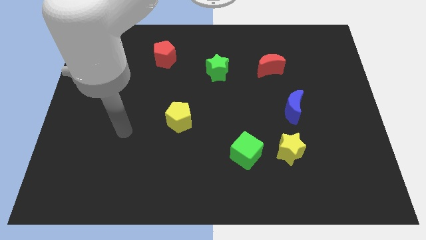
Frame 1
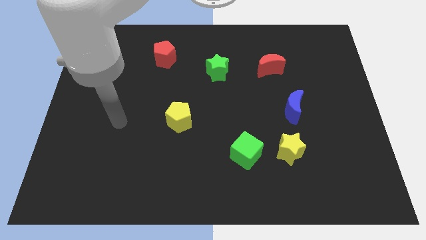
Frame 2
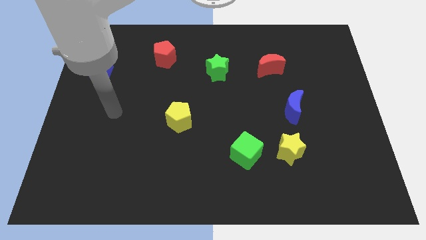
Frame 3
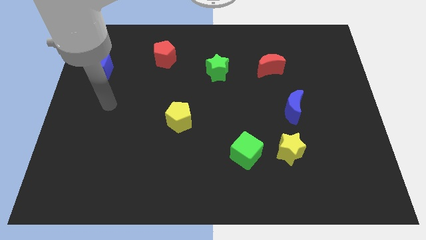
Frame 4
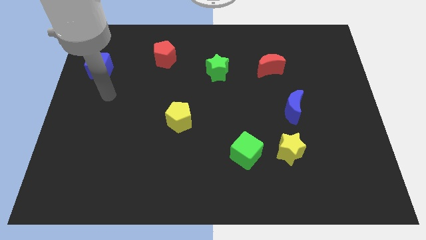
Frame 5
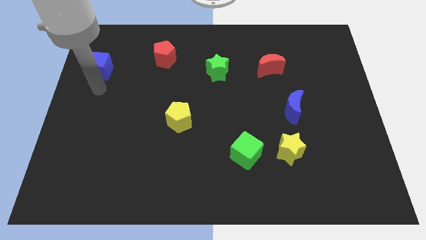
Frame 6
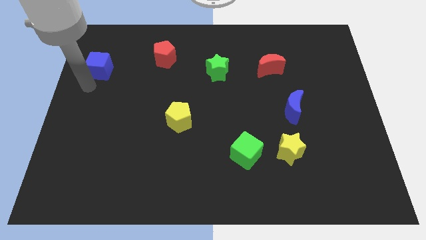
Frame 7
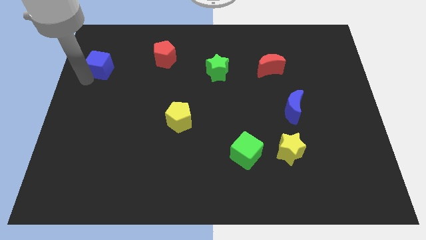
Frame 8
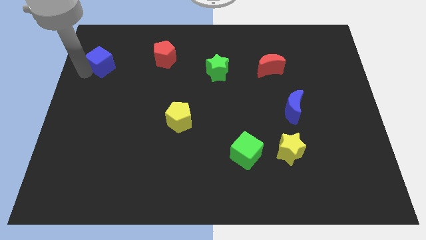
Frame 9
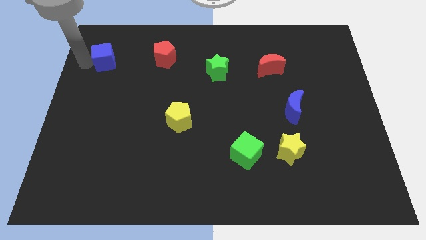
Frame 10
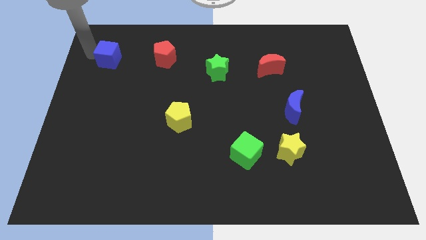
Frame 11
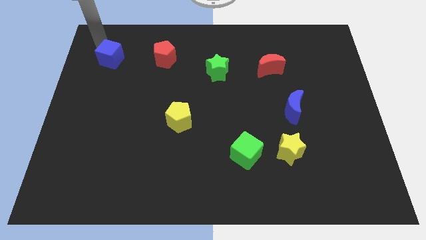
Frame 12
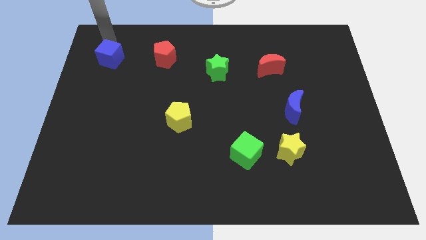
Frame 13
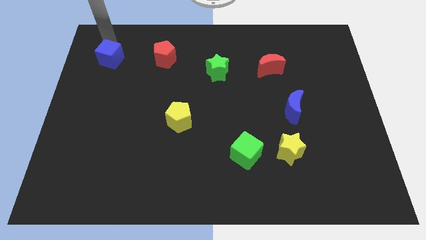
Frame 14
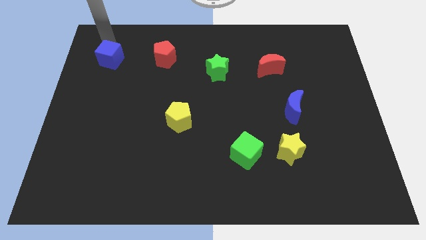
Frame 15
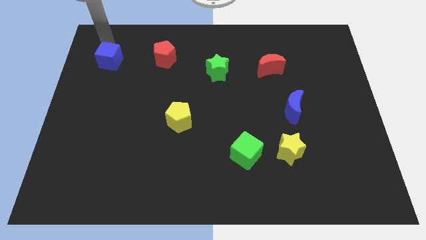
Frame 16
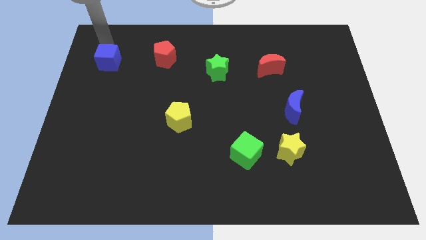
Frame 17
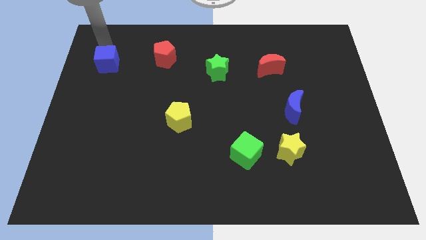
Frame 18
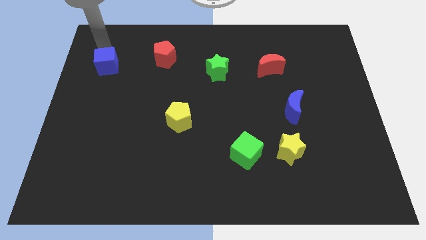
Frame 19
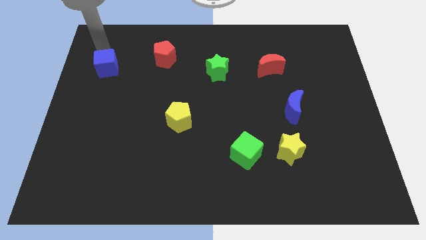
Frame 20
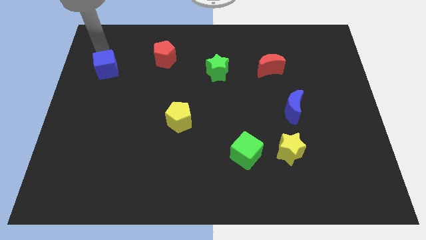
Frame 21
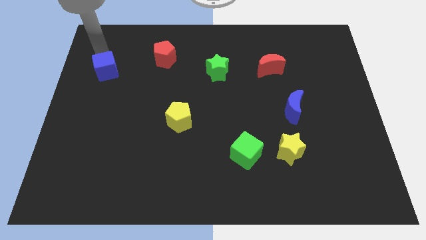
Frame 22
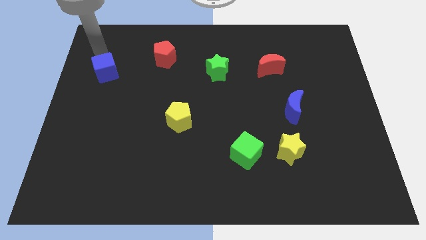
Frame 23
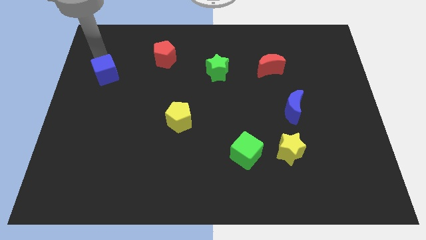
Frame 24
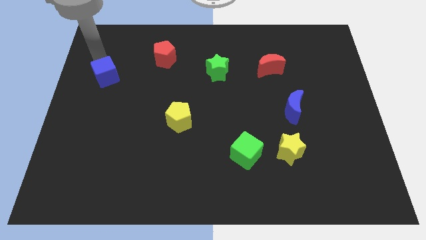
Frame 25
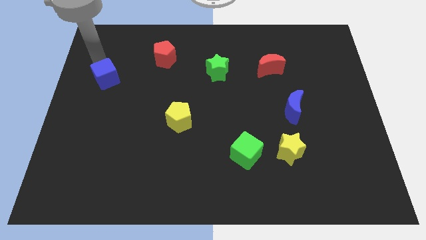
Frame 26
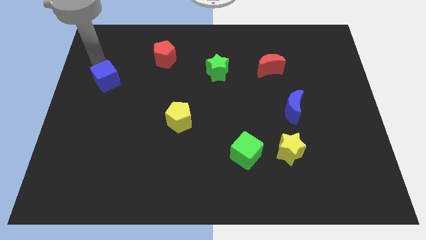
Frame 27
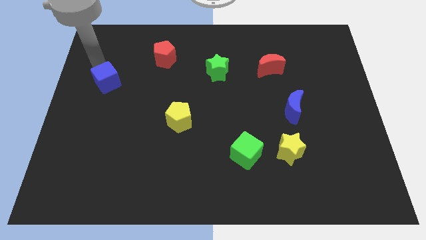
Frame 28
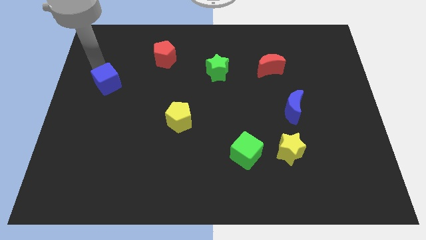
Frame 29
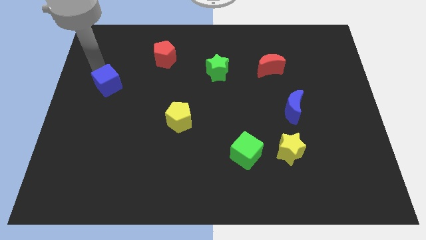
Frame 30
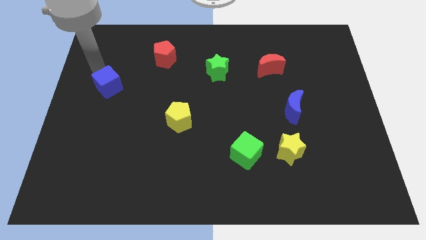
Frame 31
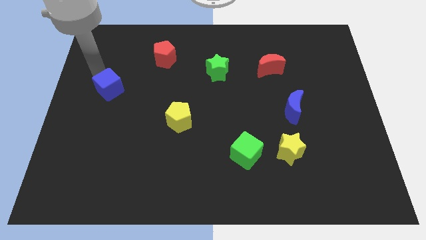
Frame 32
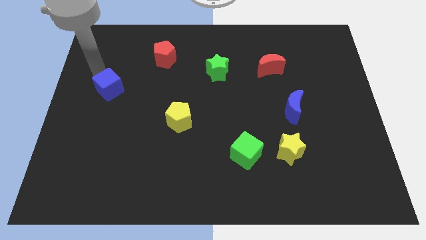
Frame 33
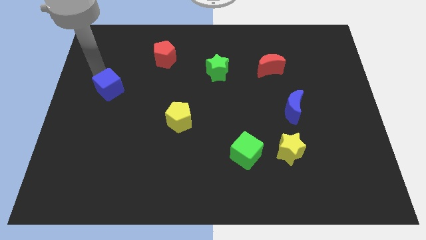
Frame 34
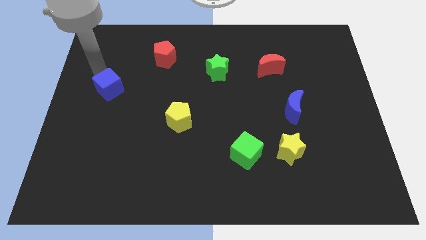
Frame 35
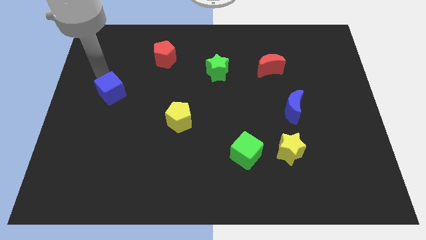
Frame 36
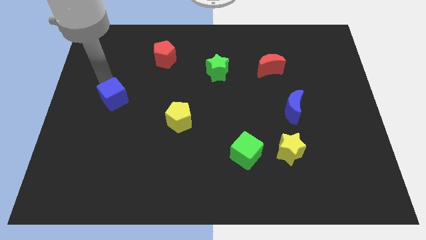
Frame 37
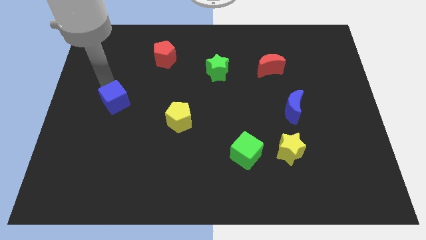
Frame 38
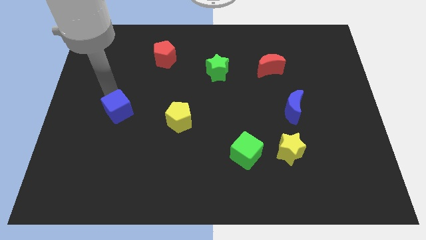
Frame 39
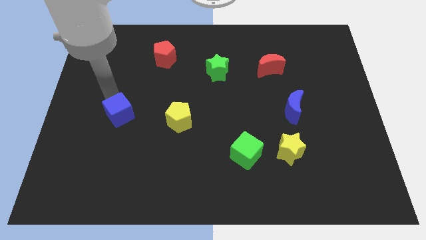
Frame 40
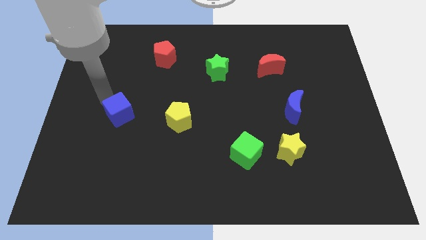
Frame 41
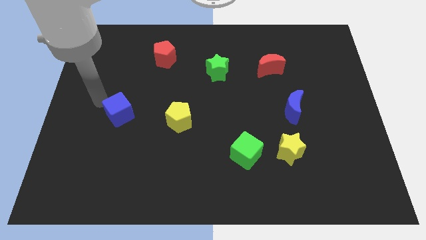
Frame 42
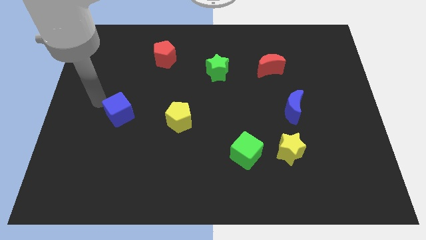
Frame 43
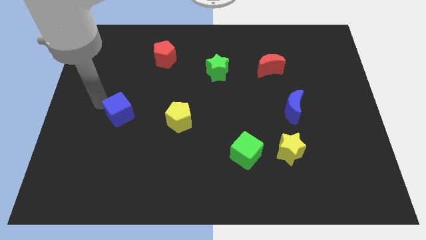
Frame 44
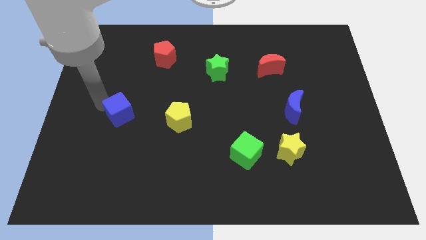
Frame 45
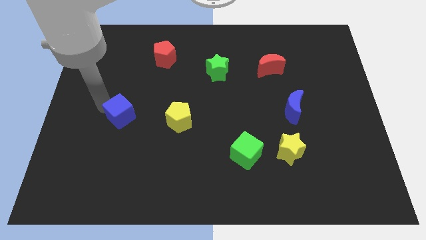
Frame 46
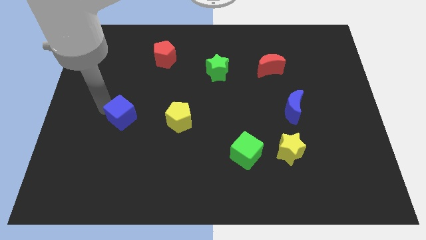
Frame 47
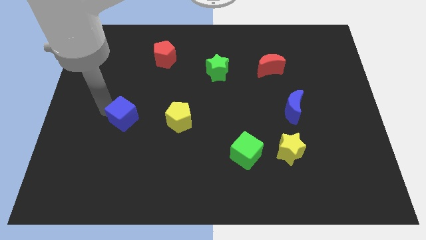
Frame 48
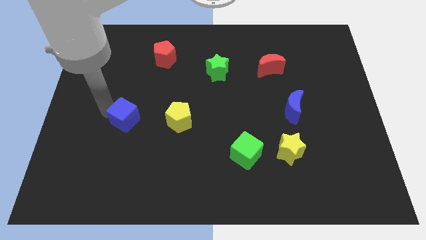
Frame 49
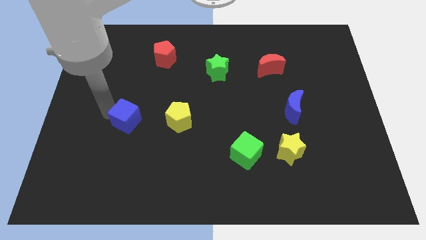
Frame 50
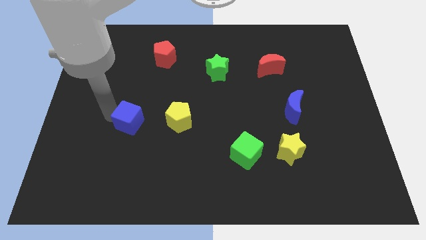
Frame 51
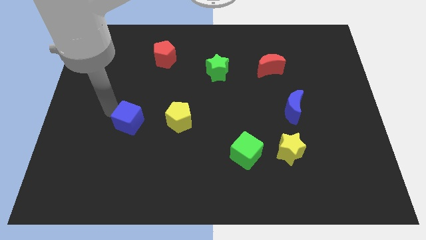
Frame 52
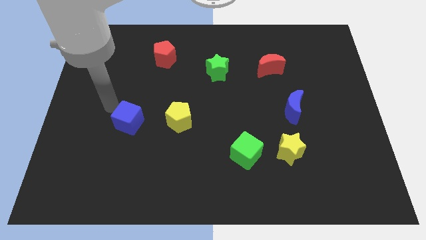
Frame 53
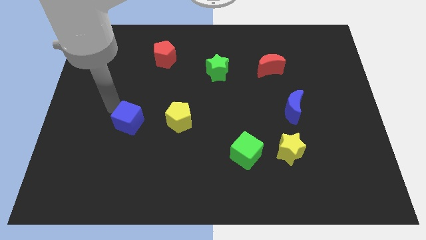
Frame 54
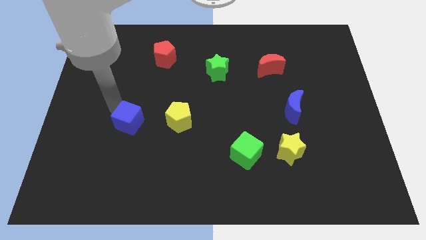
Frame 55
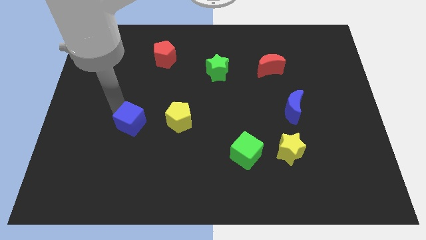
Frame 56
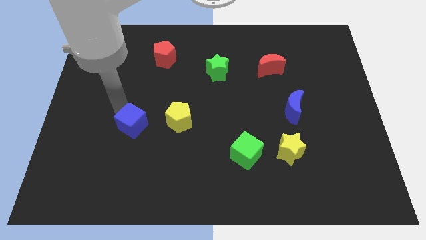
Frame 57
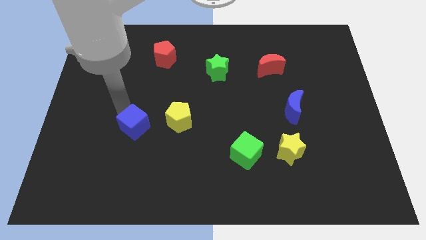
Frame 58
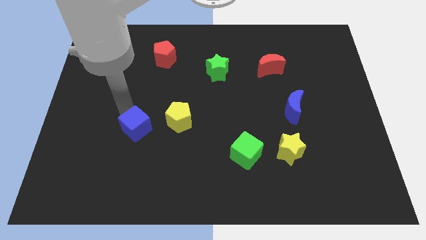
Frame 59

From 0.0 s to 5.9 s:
push the blue cube down and right diagonally

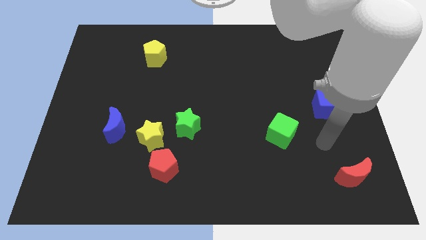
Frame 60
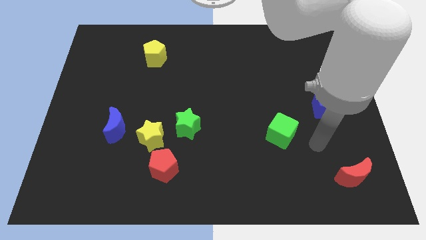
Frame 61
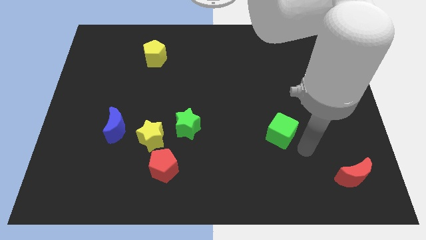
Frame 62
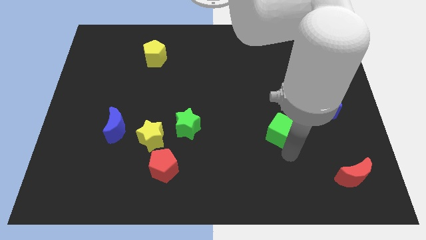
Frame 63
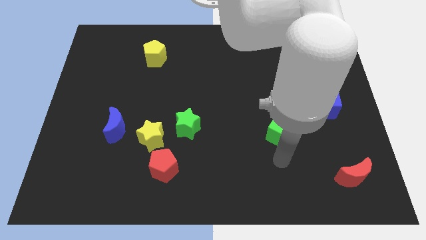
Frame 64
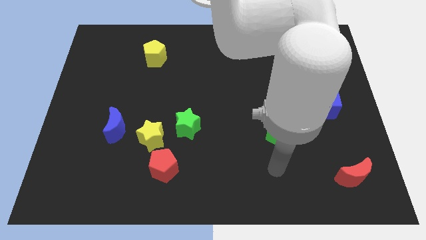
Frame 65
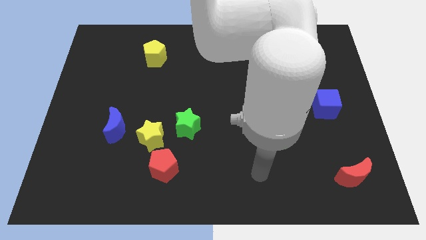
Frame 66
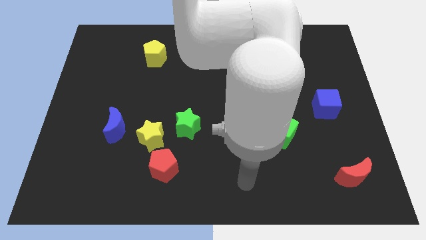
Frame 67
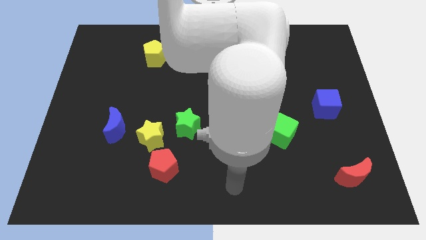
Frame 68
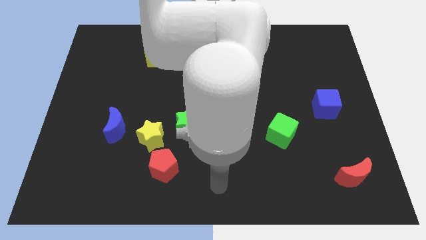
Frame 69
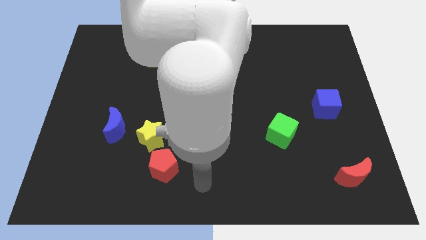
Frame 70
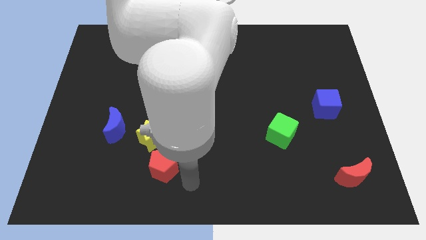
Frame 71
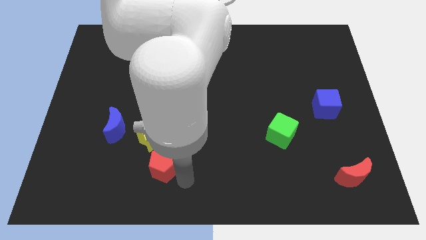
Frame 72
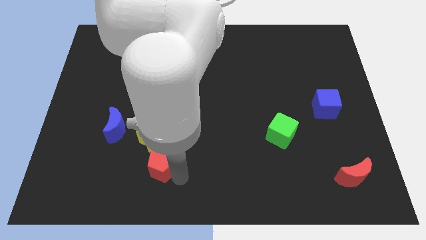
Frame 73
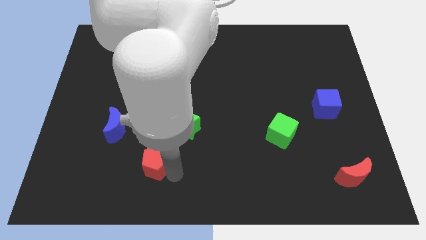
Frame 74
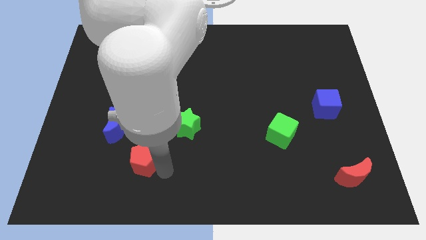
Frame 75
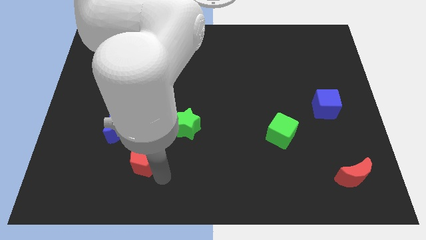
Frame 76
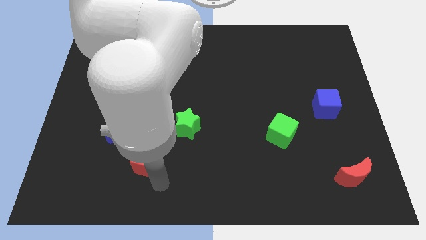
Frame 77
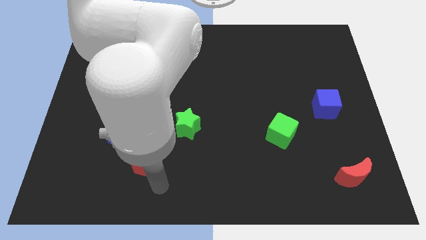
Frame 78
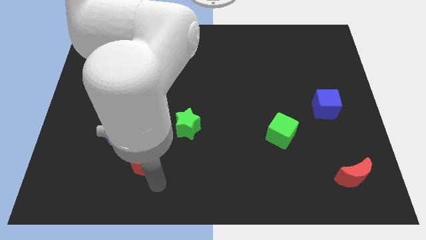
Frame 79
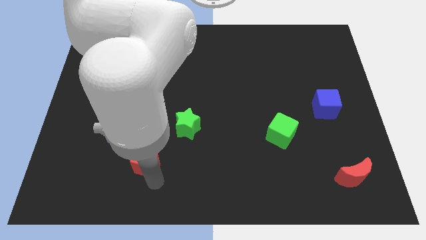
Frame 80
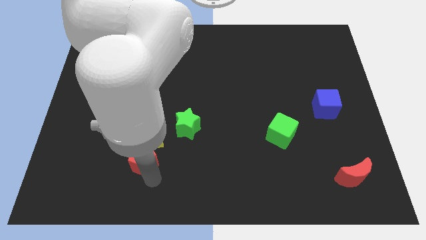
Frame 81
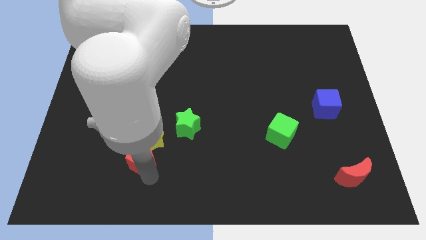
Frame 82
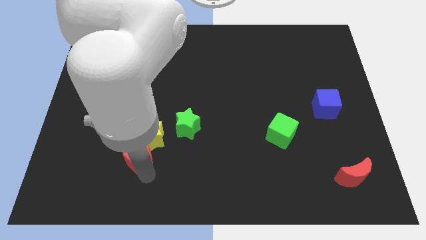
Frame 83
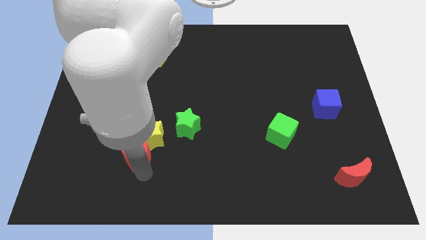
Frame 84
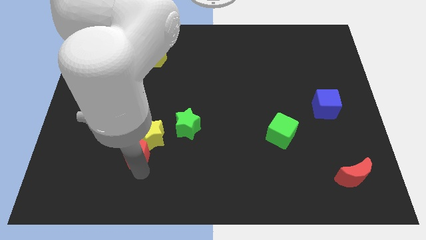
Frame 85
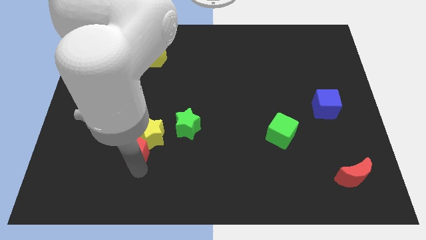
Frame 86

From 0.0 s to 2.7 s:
push the red pentagon a little bit up and left
